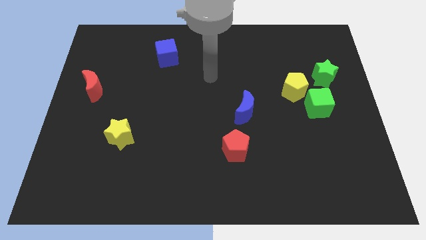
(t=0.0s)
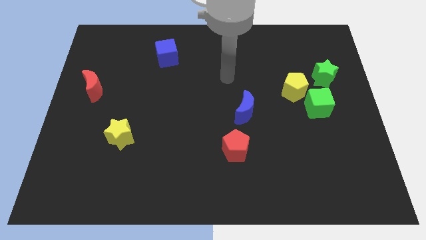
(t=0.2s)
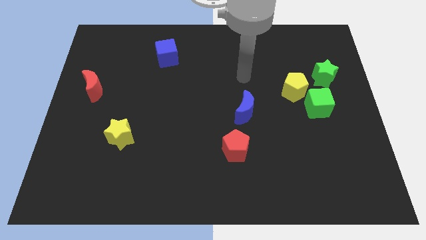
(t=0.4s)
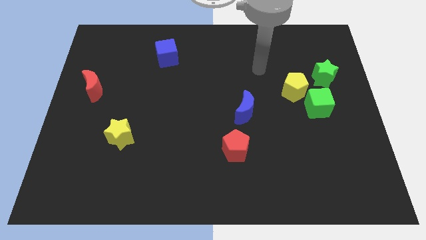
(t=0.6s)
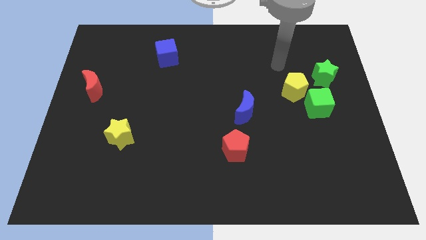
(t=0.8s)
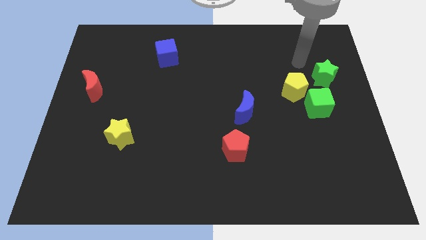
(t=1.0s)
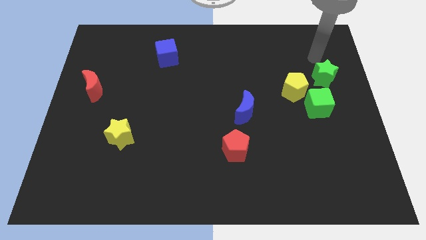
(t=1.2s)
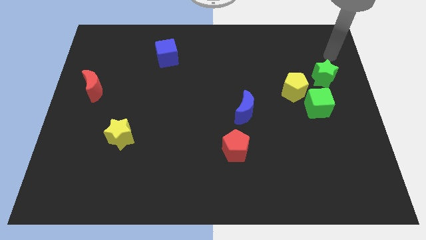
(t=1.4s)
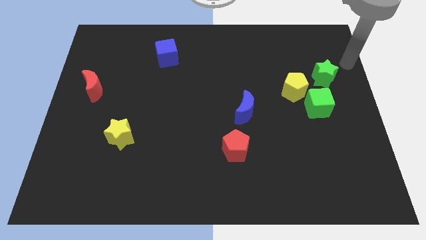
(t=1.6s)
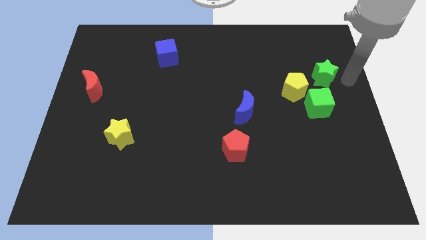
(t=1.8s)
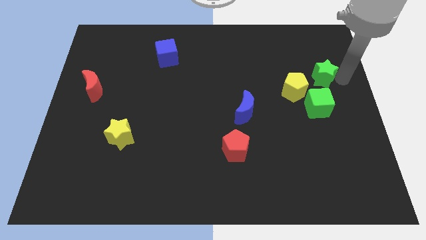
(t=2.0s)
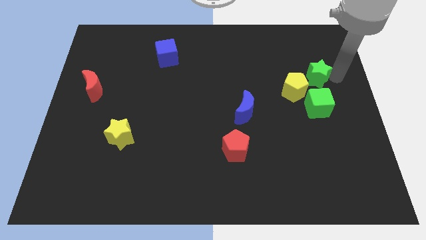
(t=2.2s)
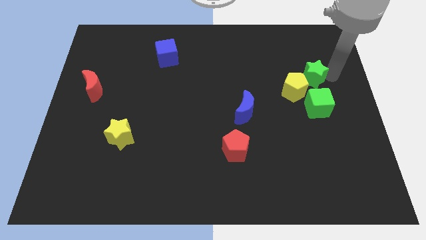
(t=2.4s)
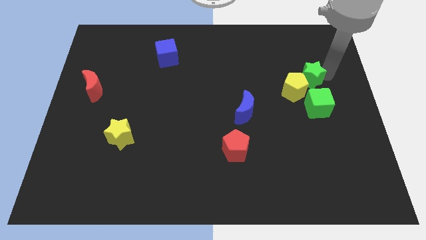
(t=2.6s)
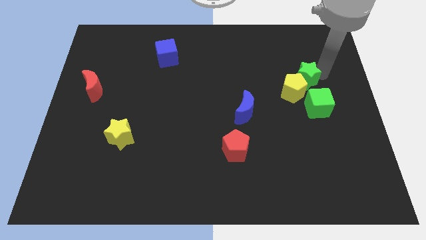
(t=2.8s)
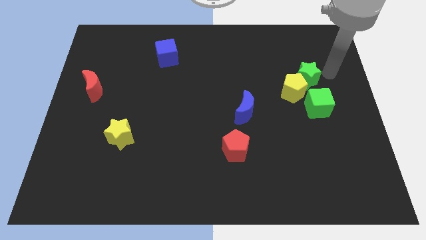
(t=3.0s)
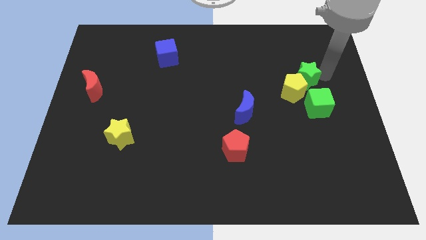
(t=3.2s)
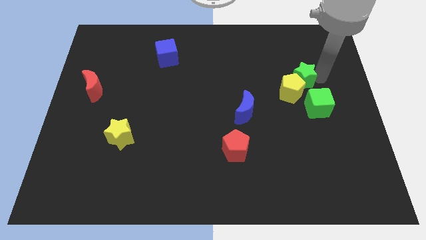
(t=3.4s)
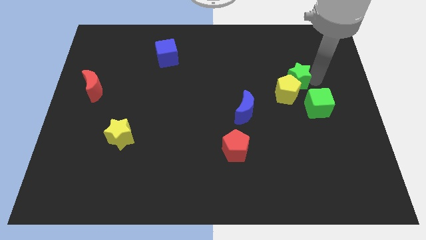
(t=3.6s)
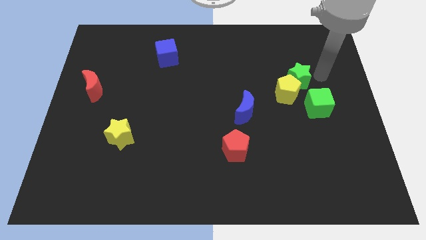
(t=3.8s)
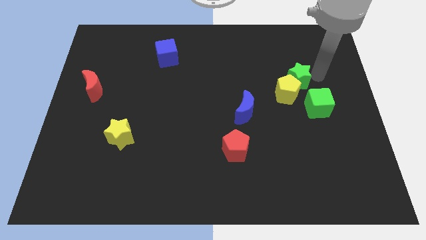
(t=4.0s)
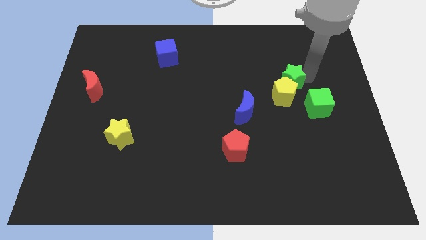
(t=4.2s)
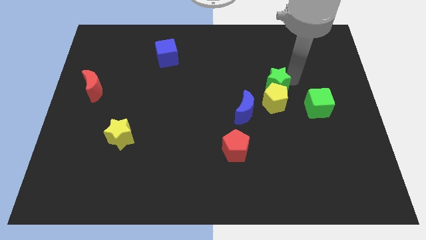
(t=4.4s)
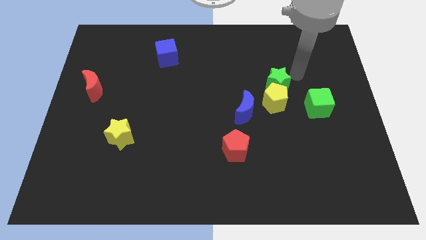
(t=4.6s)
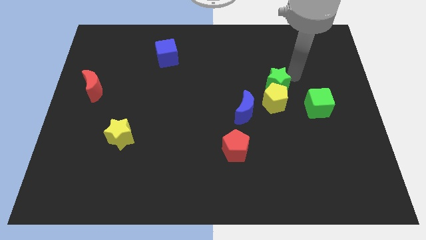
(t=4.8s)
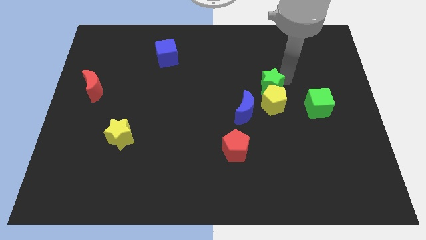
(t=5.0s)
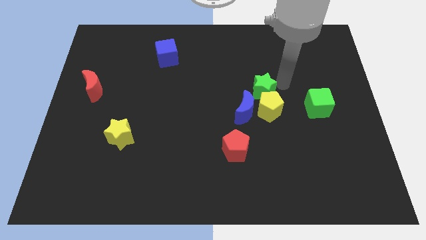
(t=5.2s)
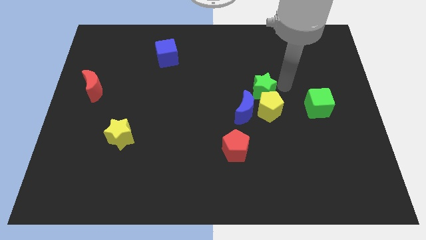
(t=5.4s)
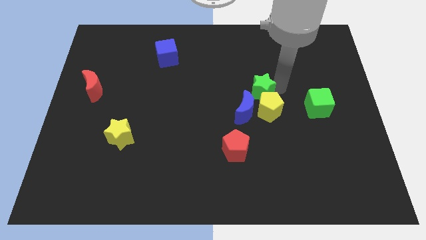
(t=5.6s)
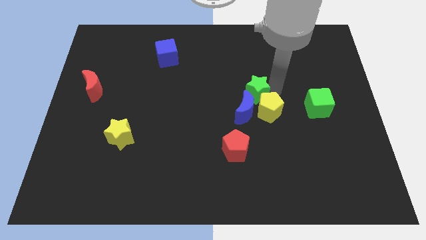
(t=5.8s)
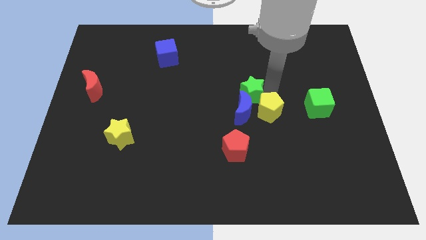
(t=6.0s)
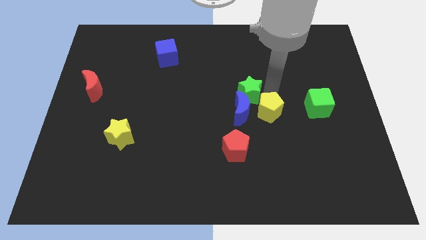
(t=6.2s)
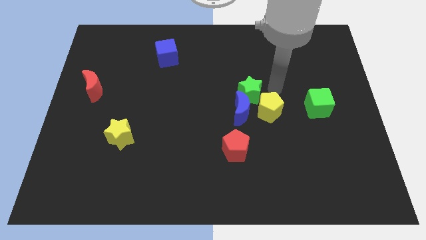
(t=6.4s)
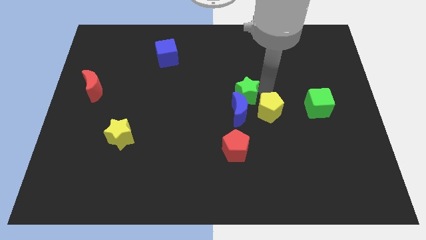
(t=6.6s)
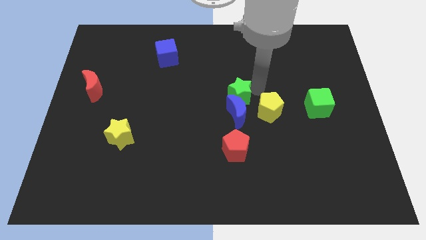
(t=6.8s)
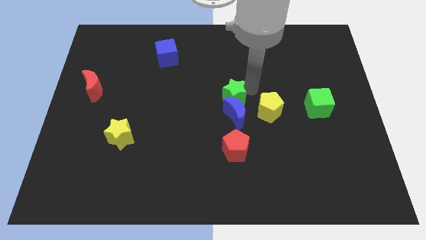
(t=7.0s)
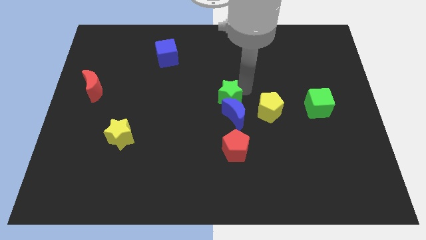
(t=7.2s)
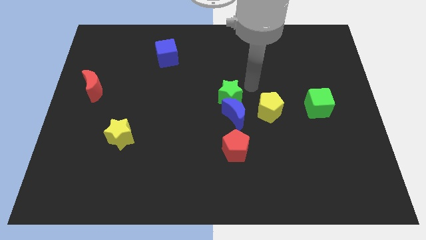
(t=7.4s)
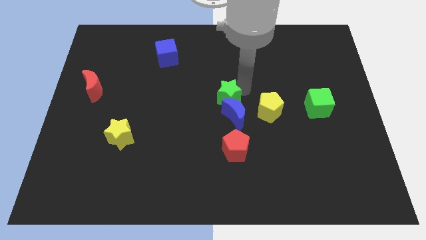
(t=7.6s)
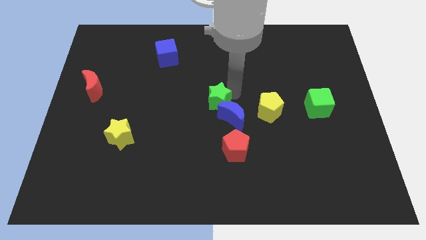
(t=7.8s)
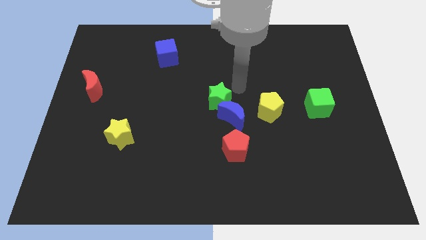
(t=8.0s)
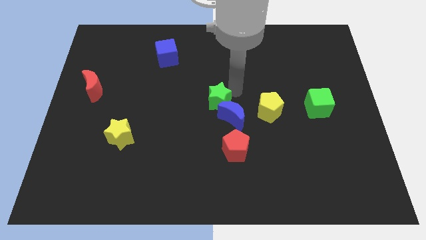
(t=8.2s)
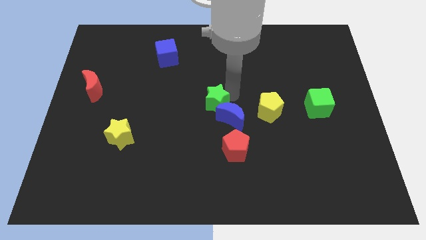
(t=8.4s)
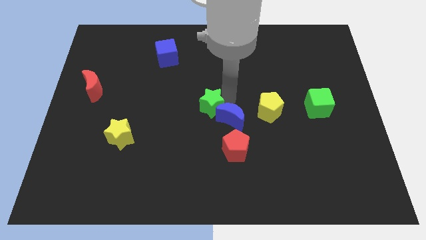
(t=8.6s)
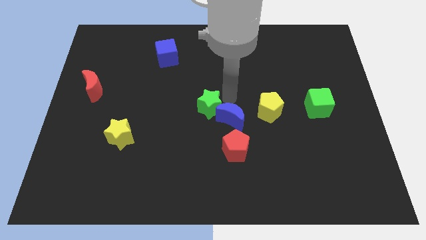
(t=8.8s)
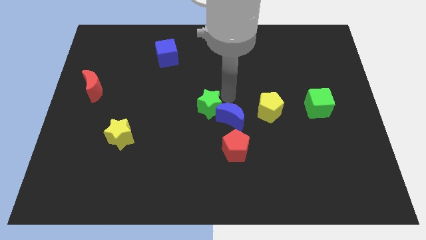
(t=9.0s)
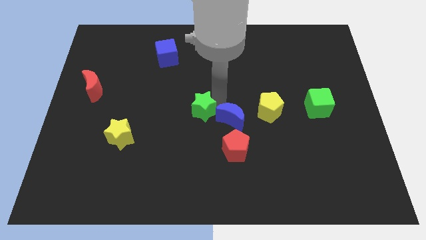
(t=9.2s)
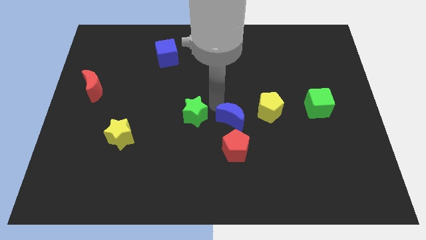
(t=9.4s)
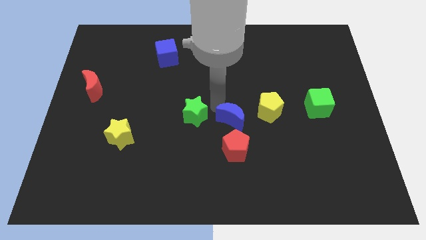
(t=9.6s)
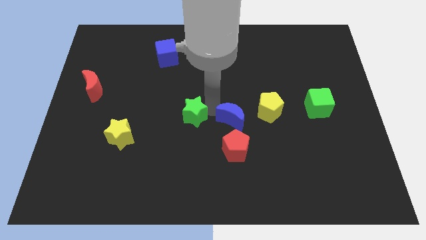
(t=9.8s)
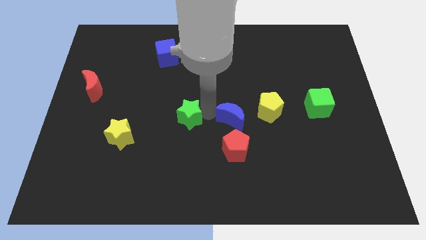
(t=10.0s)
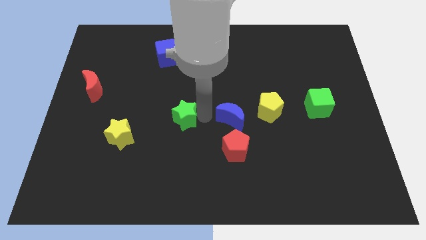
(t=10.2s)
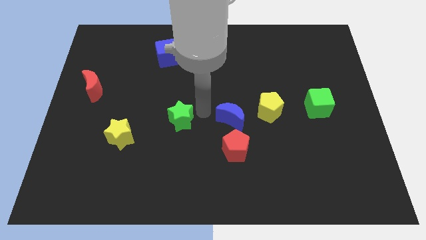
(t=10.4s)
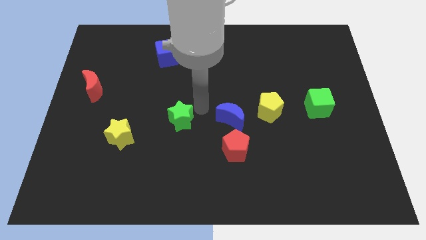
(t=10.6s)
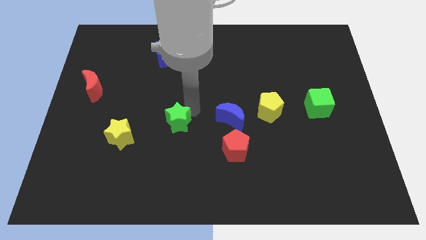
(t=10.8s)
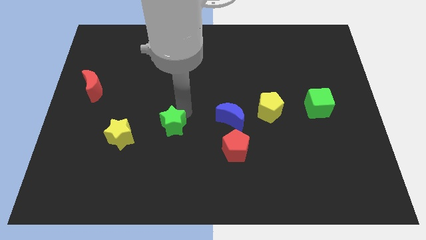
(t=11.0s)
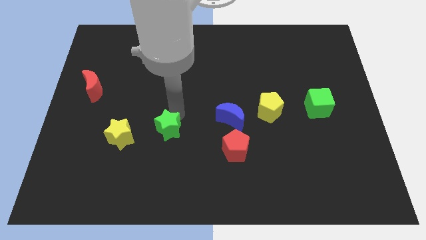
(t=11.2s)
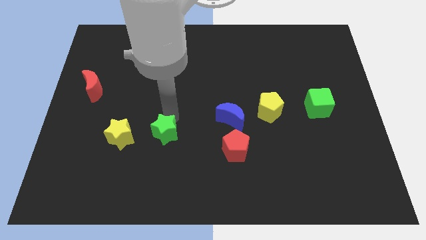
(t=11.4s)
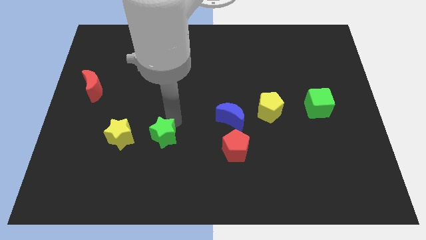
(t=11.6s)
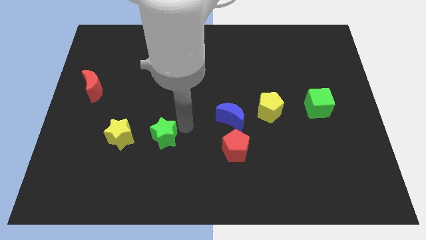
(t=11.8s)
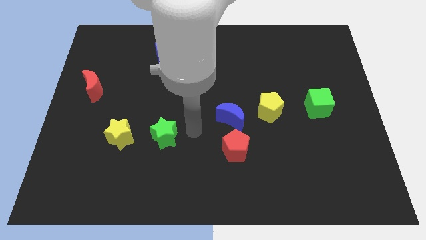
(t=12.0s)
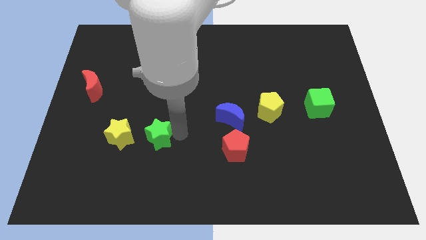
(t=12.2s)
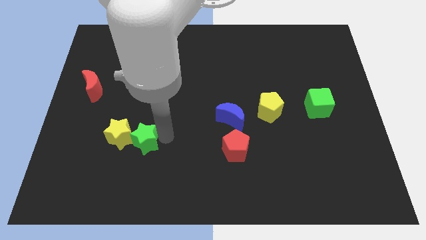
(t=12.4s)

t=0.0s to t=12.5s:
put the green star next to the yellow star
